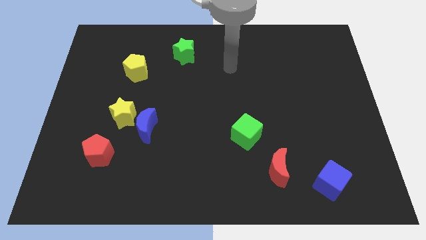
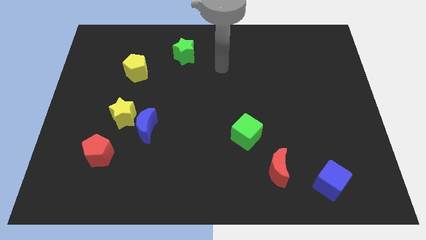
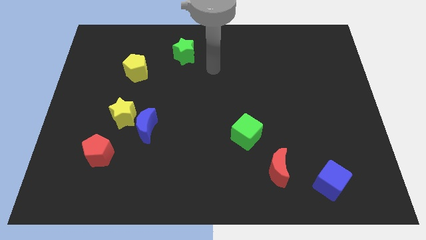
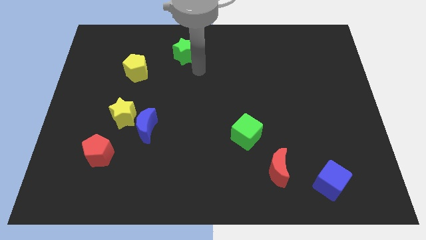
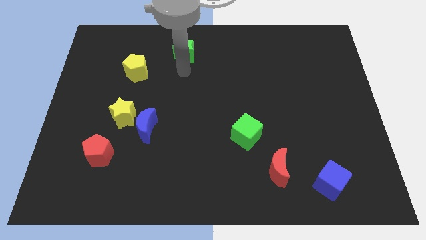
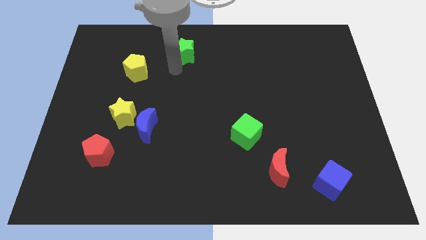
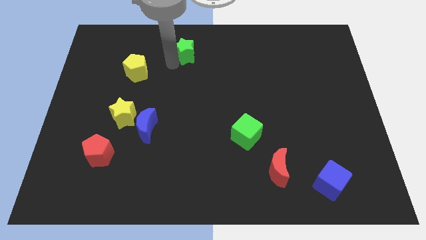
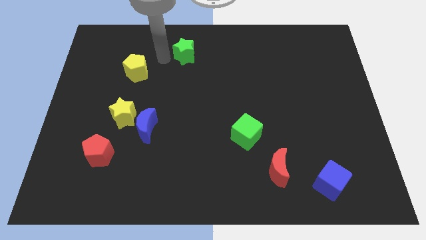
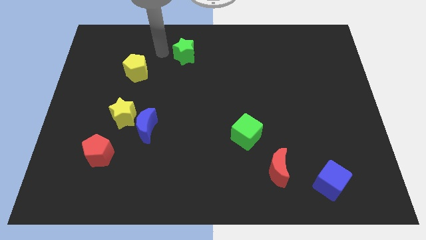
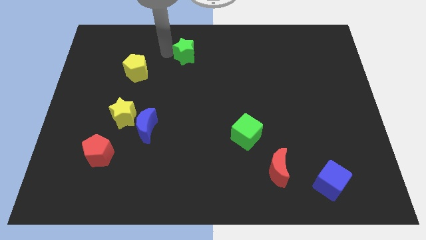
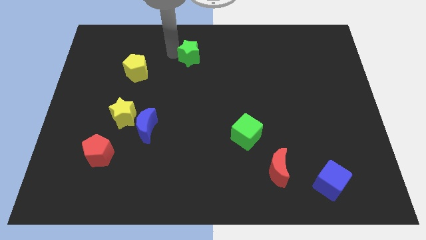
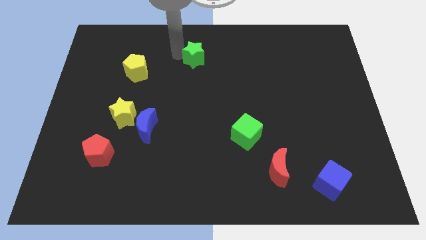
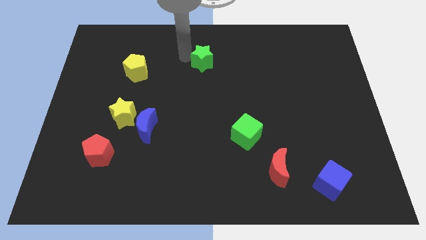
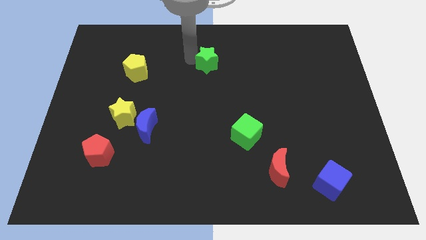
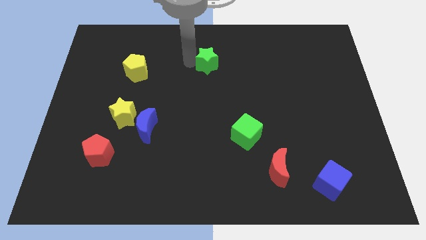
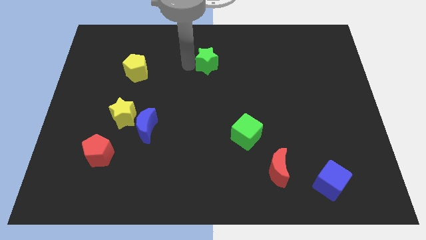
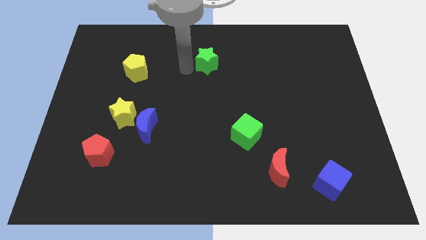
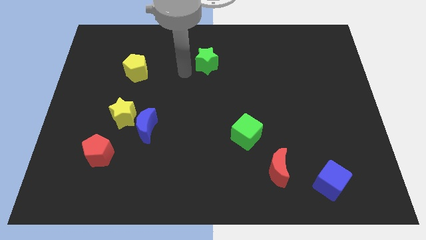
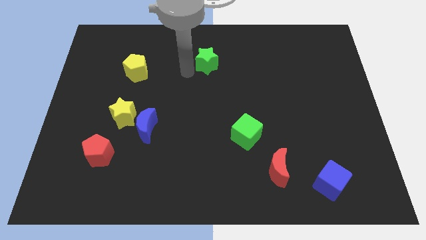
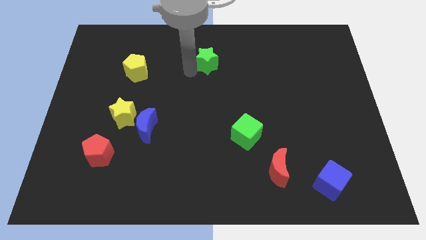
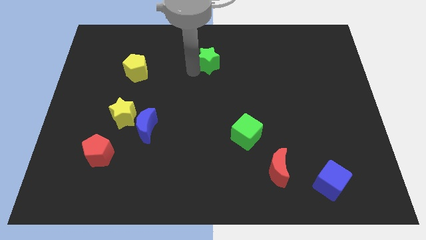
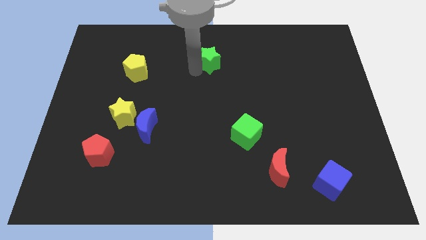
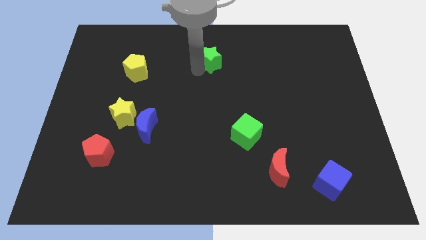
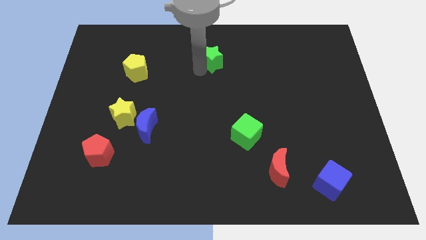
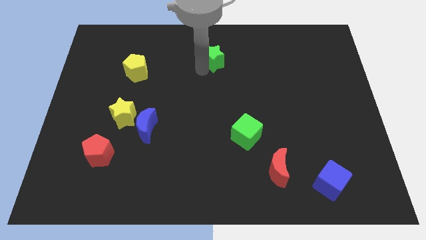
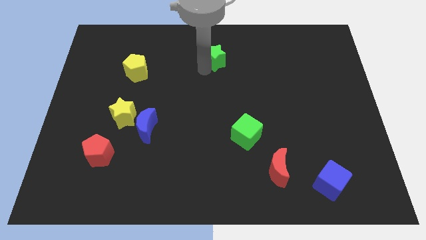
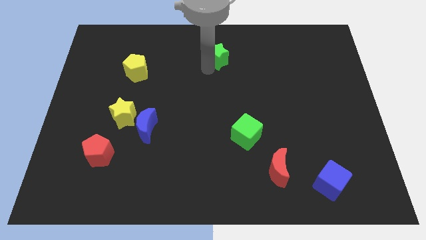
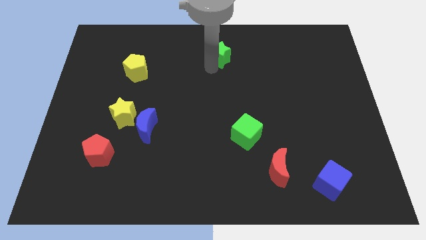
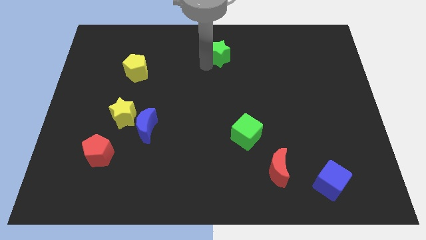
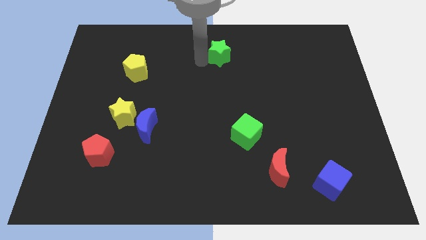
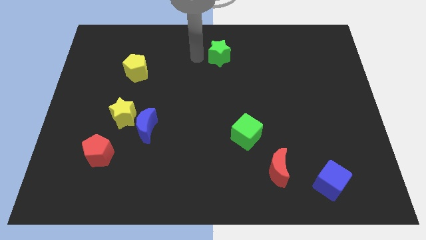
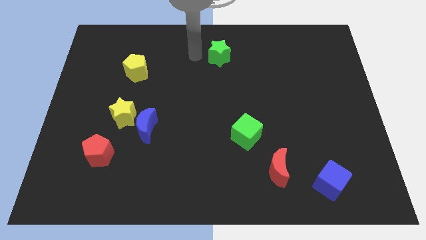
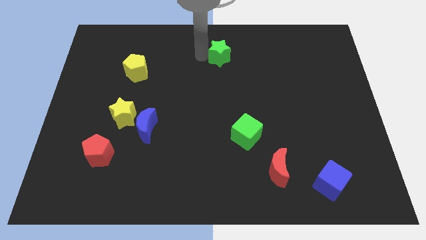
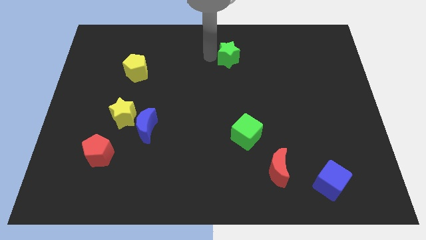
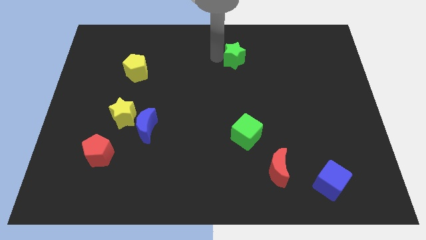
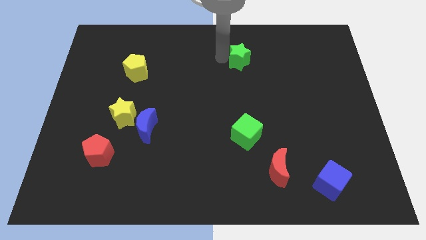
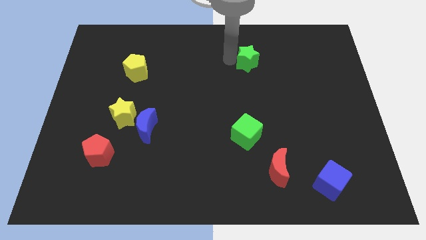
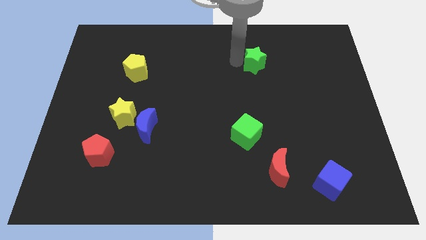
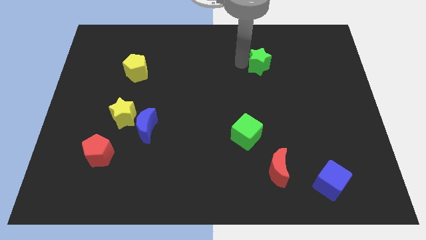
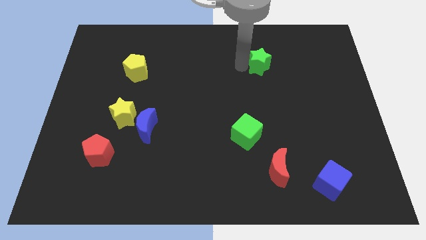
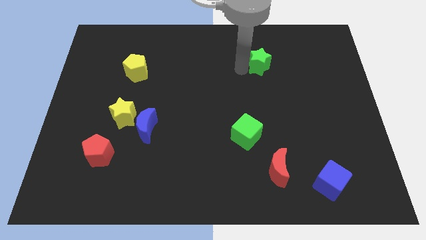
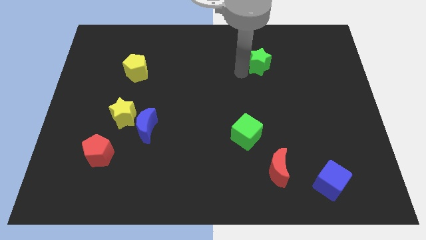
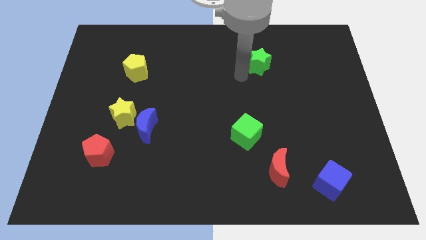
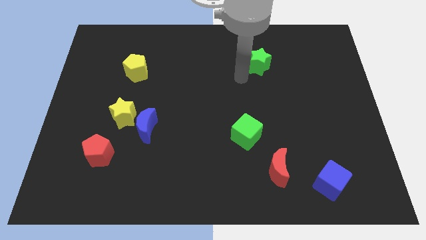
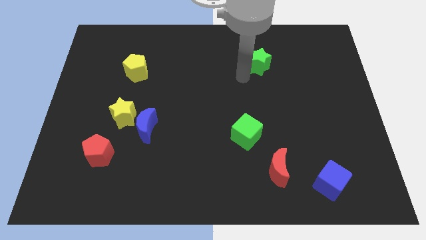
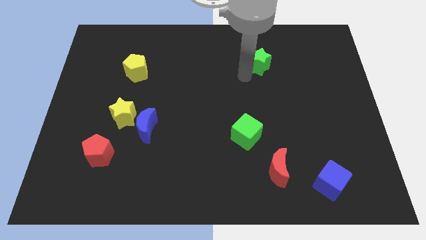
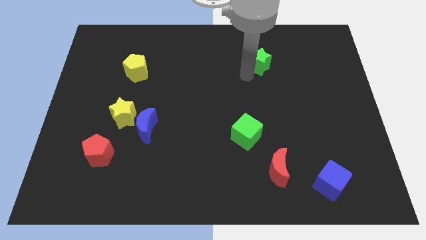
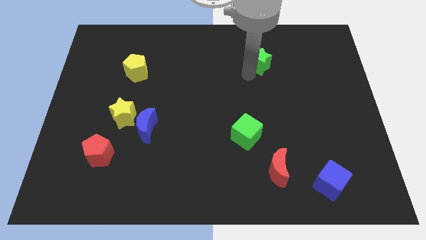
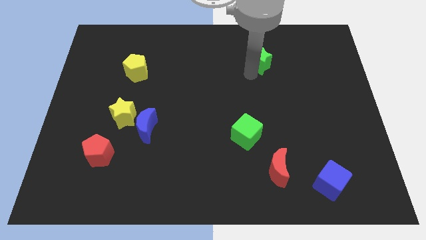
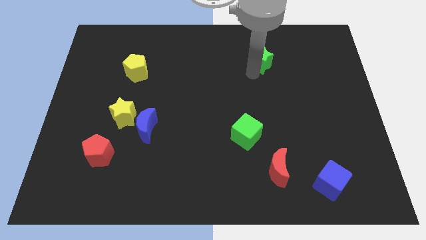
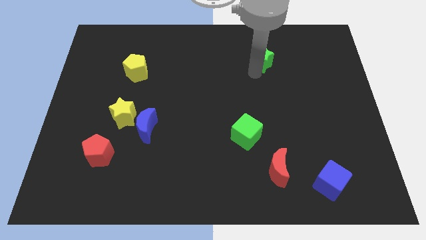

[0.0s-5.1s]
move the green star right

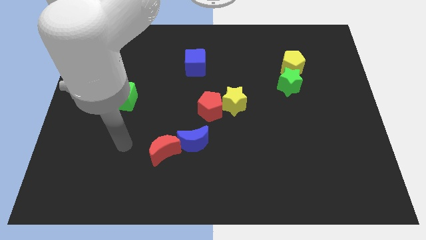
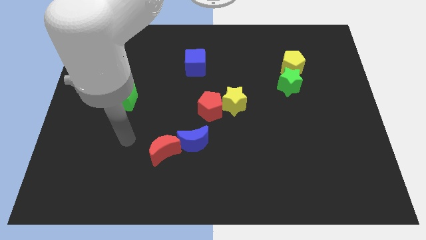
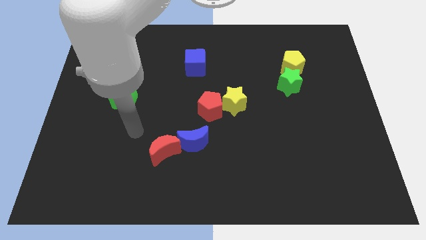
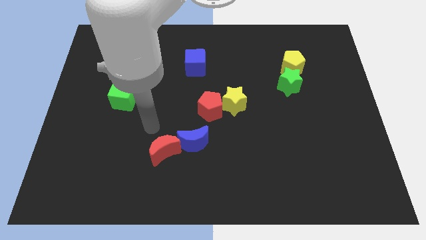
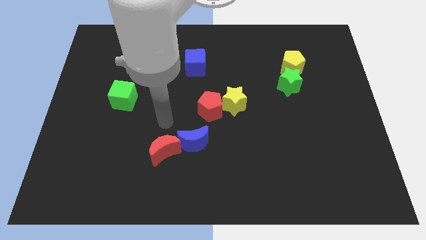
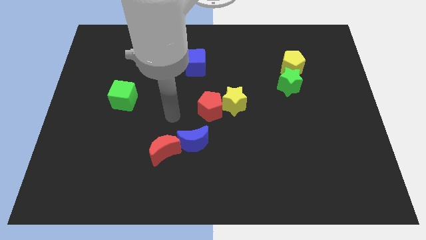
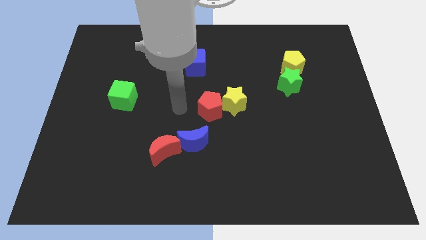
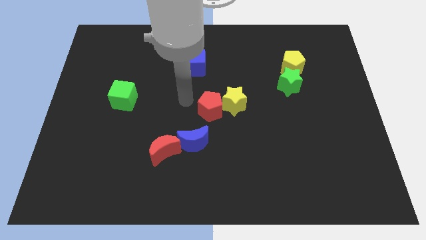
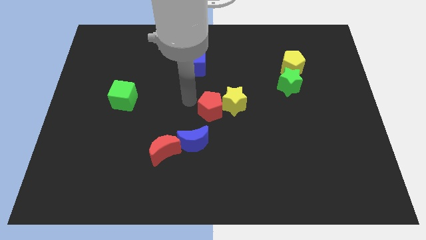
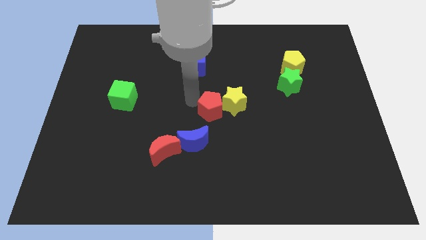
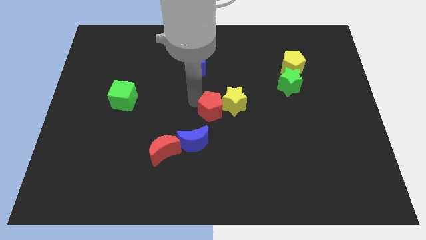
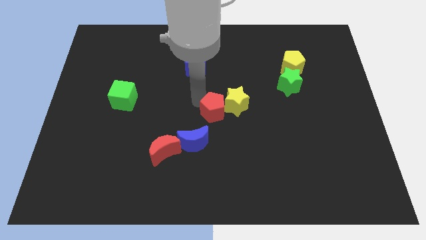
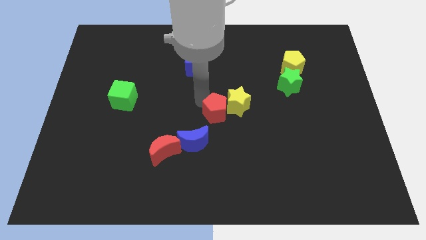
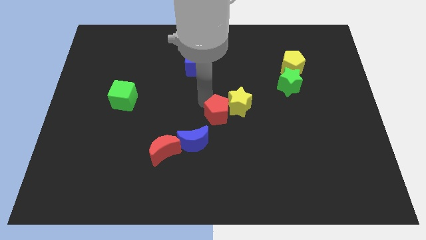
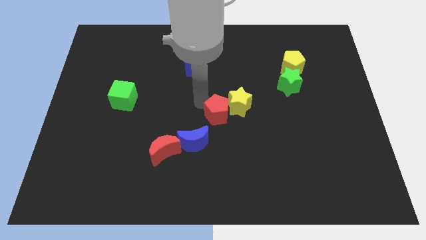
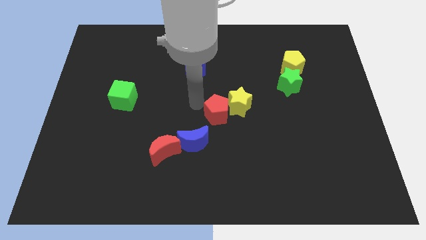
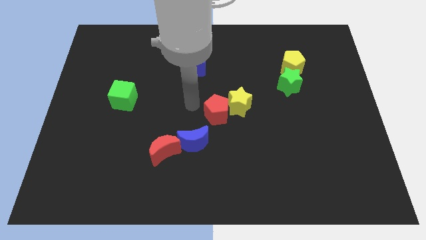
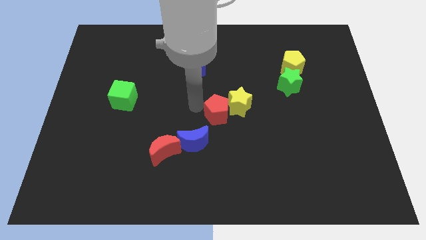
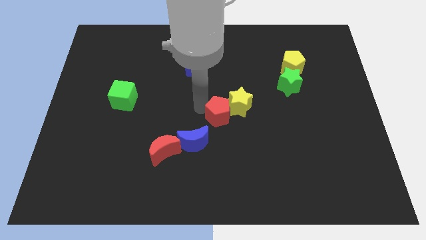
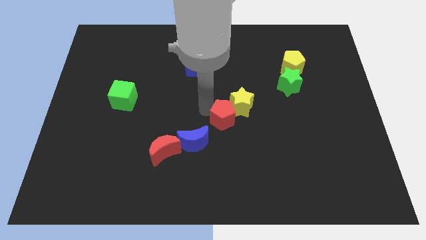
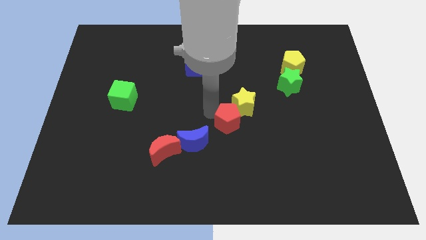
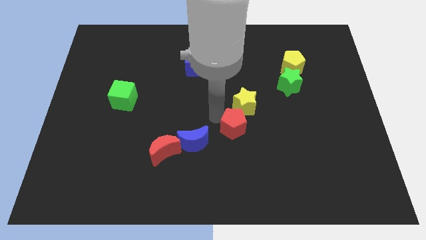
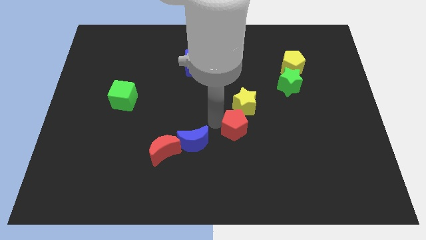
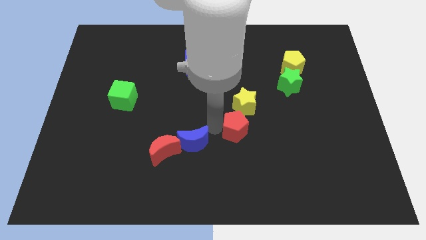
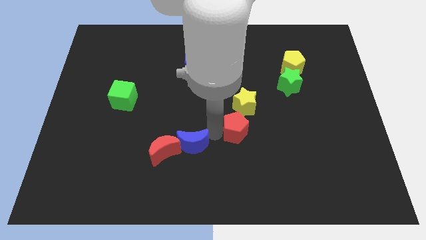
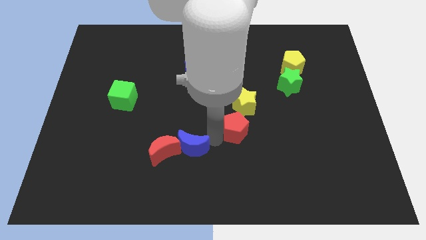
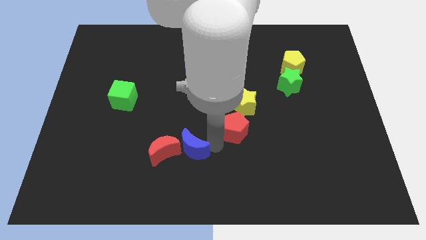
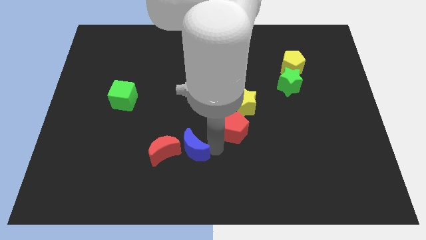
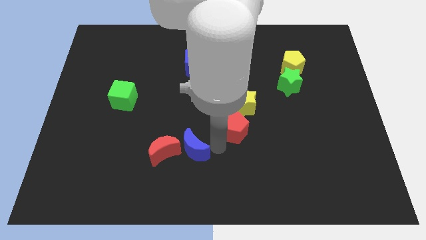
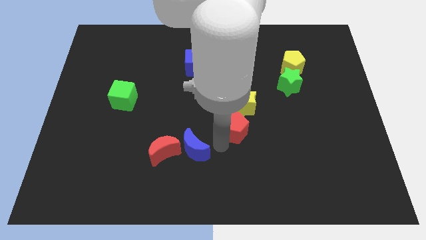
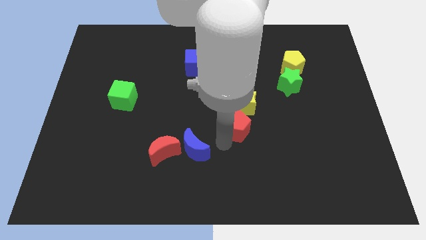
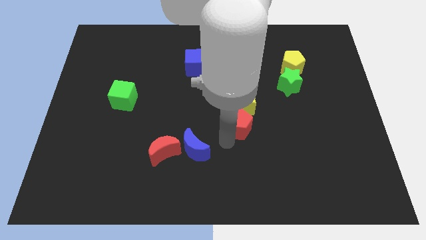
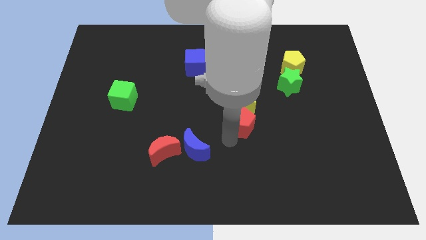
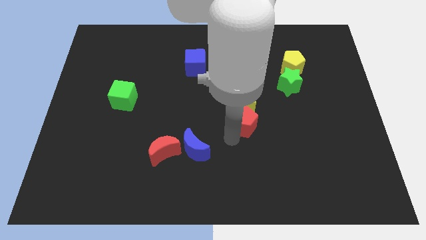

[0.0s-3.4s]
slightly push the red pentagon to the right
